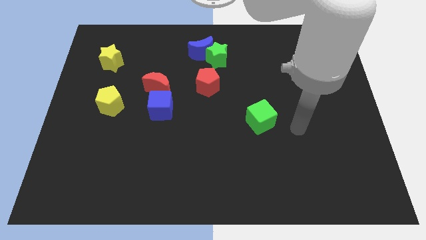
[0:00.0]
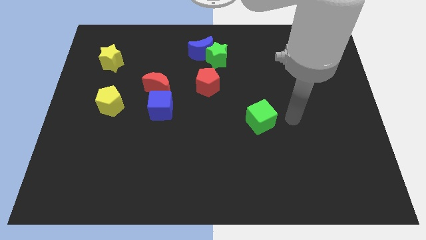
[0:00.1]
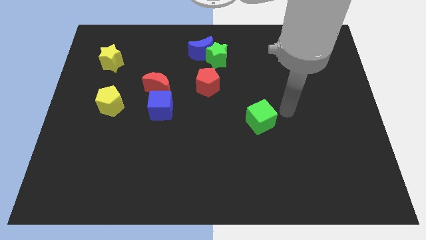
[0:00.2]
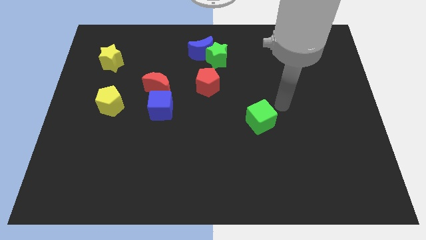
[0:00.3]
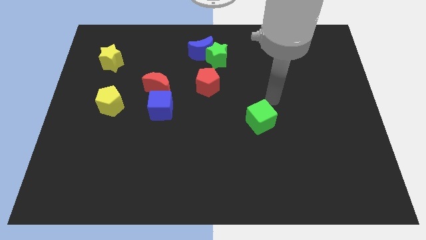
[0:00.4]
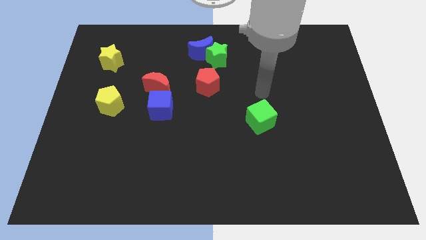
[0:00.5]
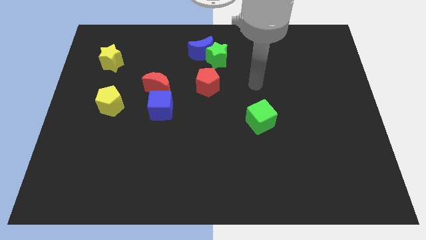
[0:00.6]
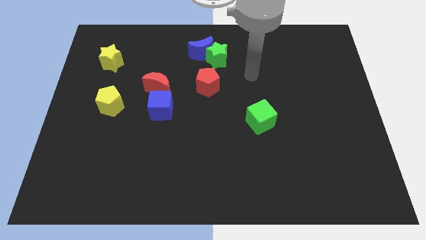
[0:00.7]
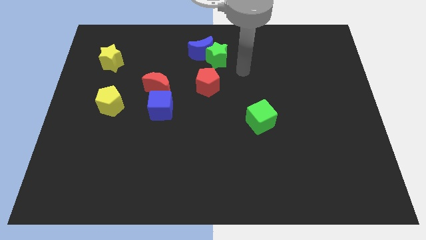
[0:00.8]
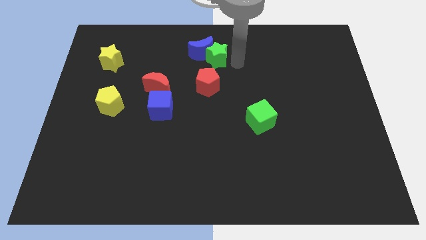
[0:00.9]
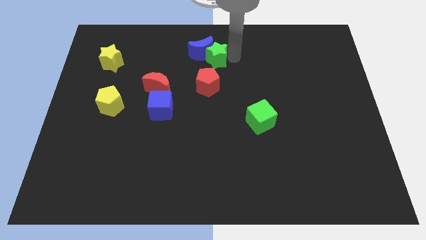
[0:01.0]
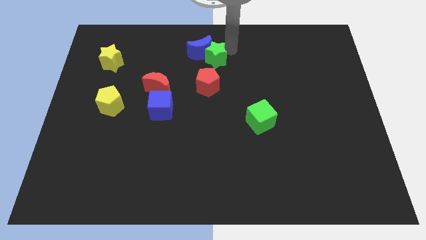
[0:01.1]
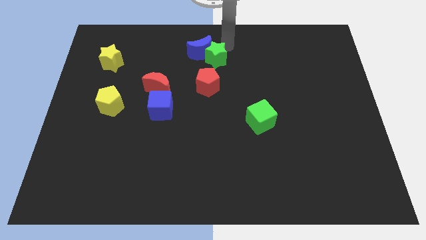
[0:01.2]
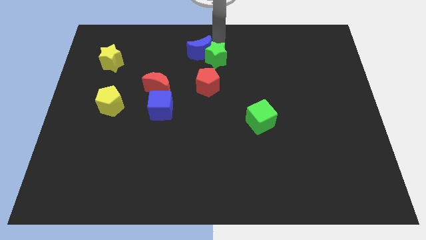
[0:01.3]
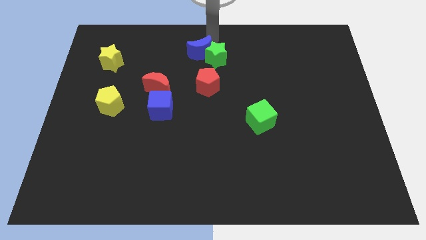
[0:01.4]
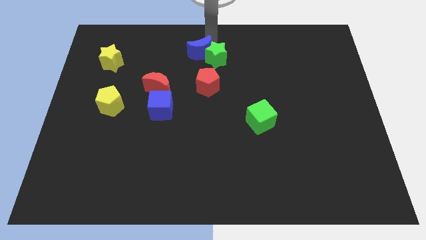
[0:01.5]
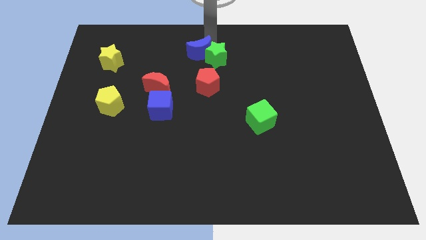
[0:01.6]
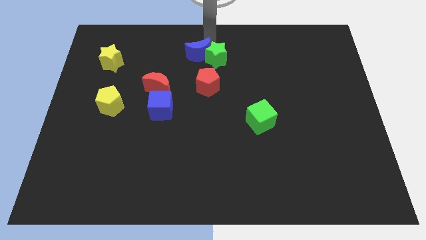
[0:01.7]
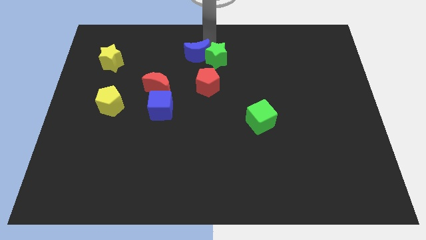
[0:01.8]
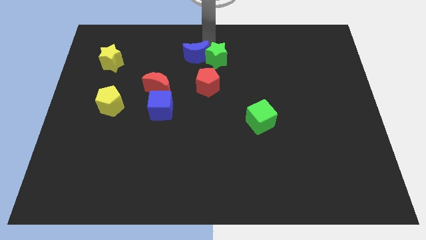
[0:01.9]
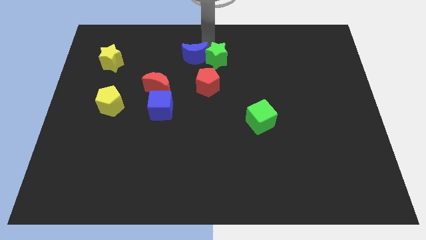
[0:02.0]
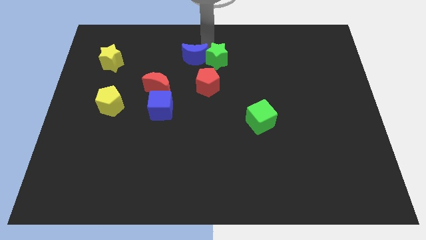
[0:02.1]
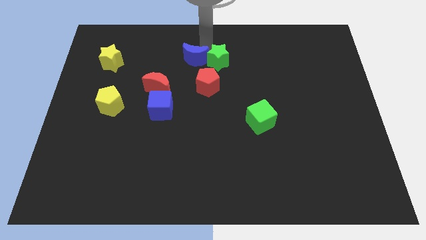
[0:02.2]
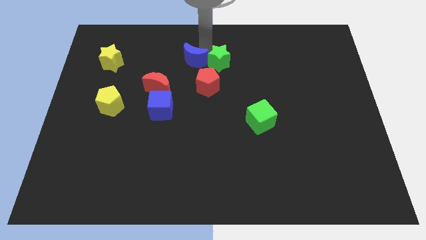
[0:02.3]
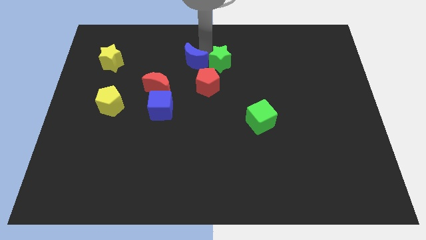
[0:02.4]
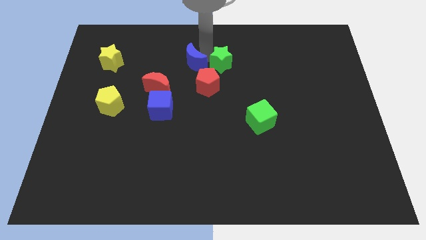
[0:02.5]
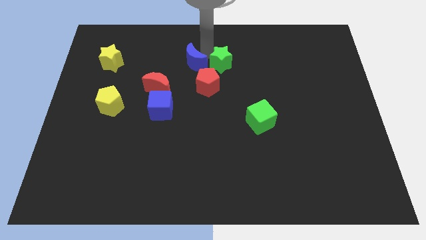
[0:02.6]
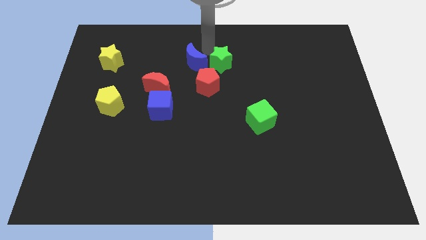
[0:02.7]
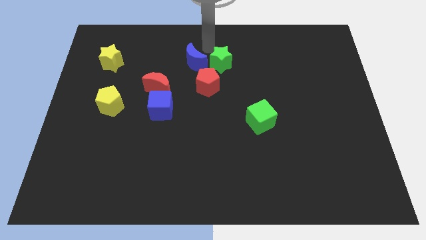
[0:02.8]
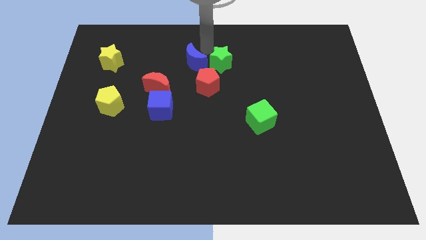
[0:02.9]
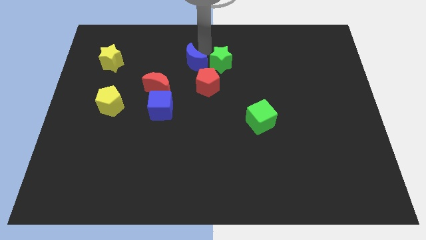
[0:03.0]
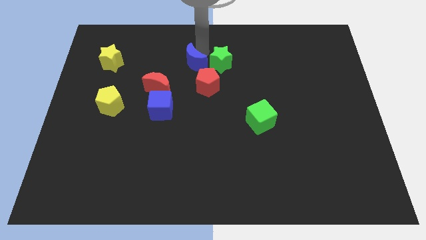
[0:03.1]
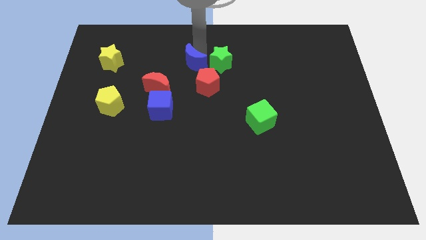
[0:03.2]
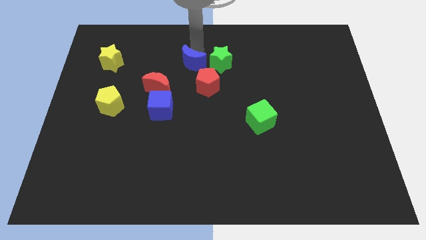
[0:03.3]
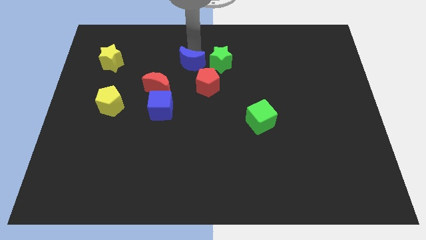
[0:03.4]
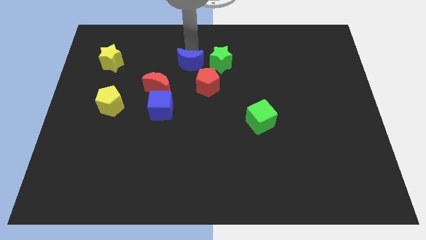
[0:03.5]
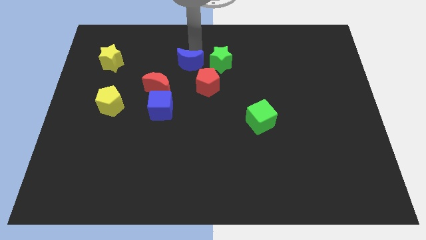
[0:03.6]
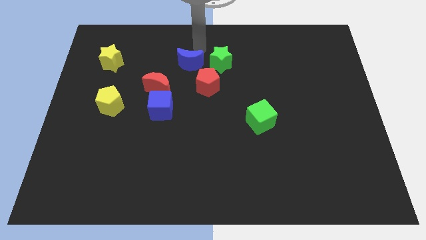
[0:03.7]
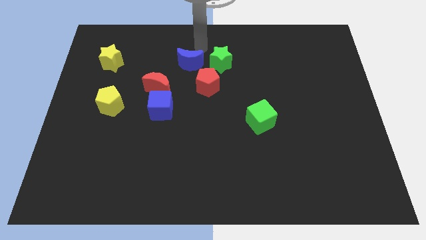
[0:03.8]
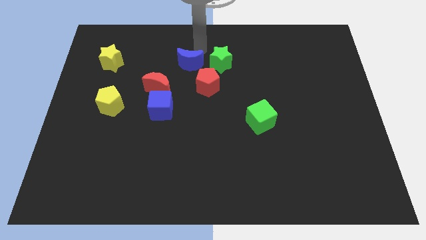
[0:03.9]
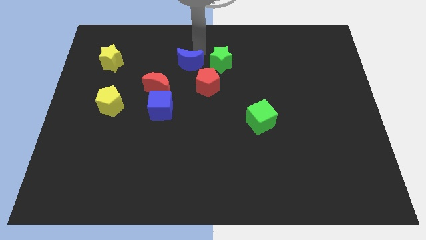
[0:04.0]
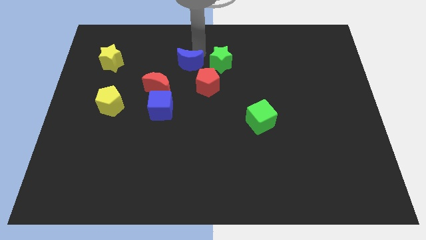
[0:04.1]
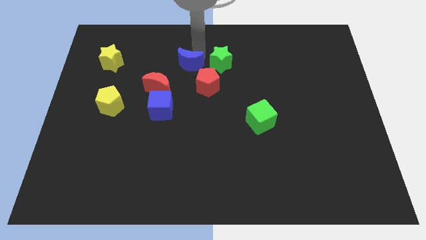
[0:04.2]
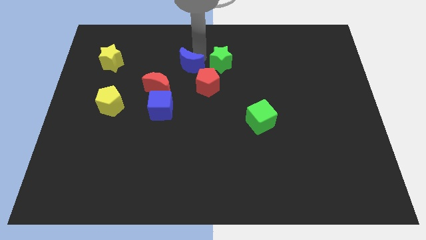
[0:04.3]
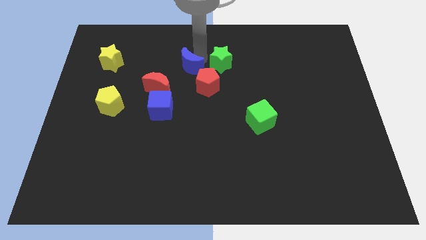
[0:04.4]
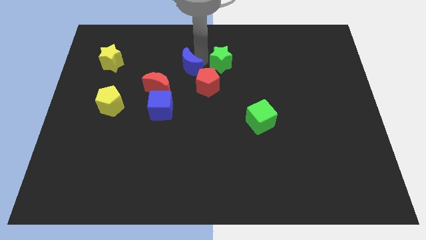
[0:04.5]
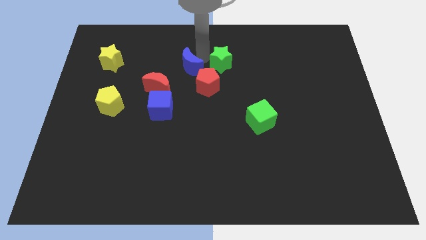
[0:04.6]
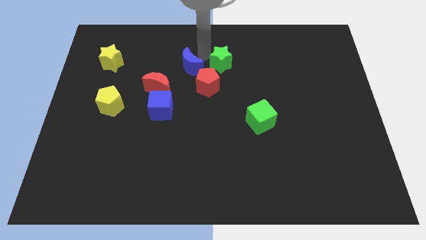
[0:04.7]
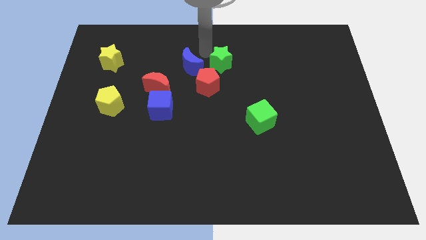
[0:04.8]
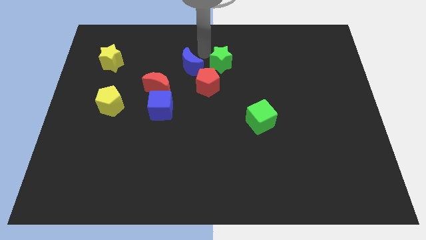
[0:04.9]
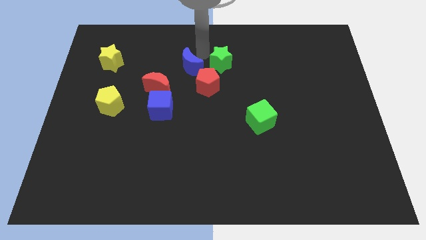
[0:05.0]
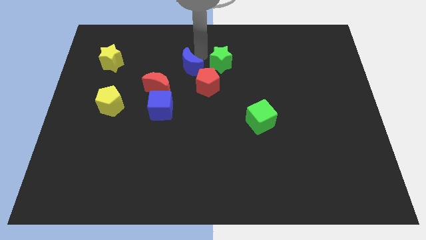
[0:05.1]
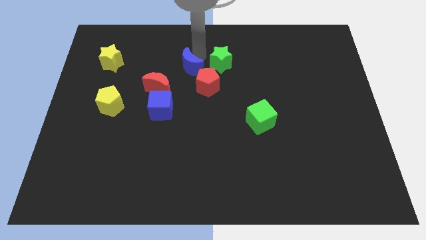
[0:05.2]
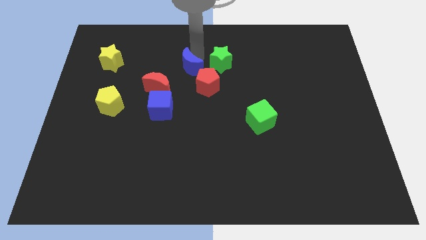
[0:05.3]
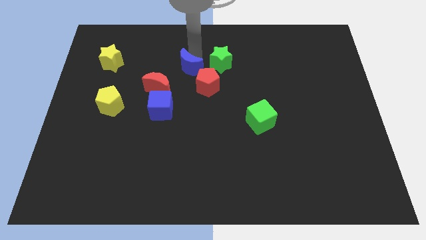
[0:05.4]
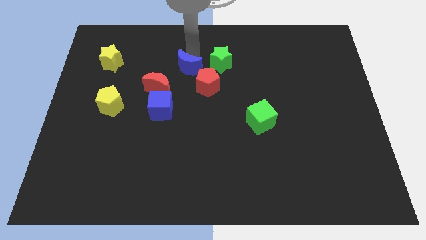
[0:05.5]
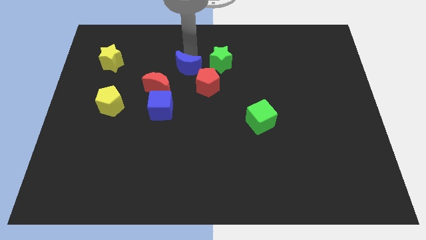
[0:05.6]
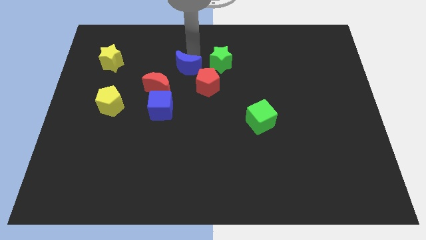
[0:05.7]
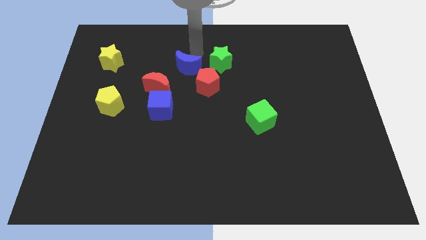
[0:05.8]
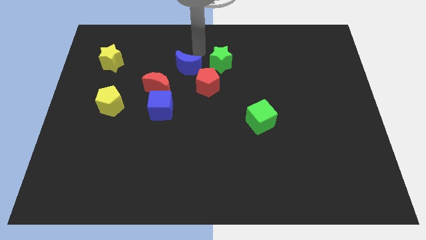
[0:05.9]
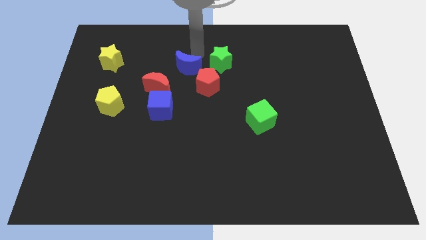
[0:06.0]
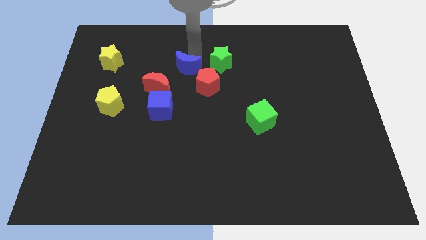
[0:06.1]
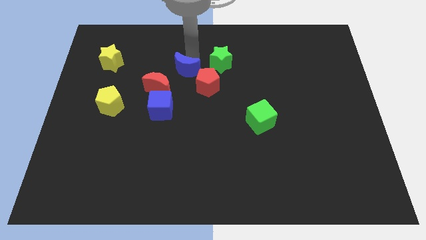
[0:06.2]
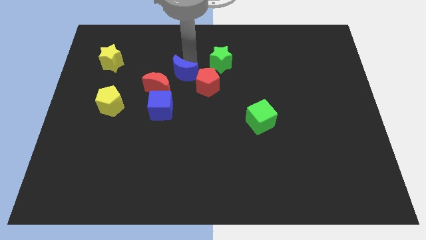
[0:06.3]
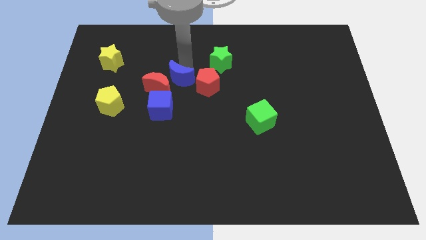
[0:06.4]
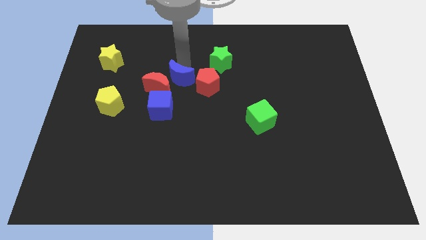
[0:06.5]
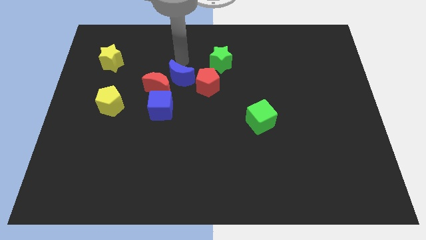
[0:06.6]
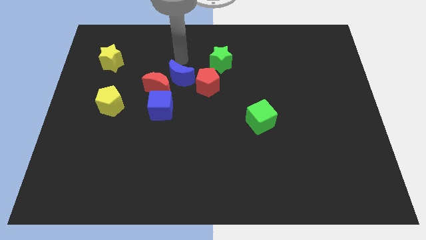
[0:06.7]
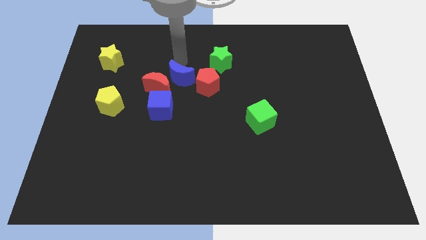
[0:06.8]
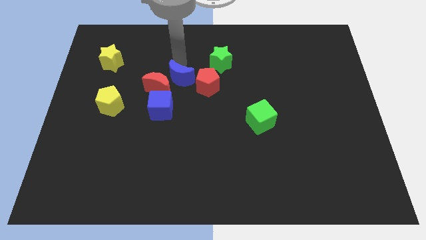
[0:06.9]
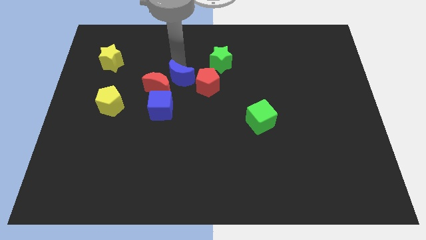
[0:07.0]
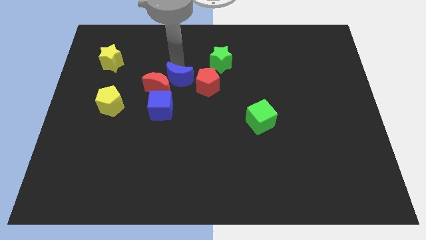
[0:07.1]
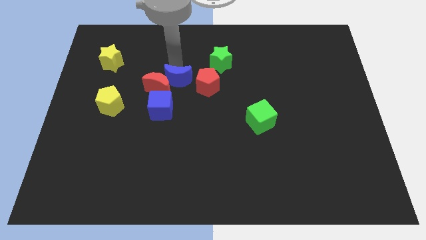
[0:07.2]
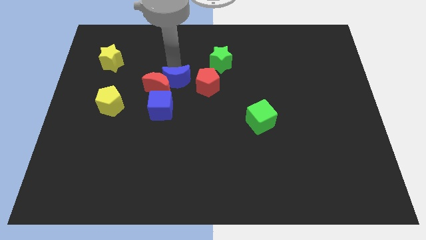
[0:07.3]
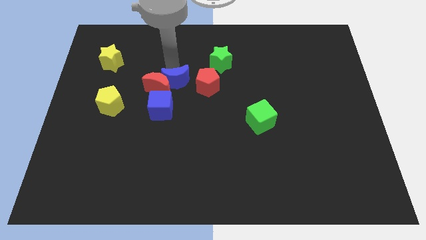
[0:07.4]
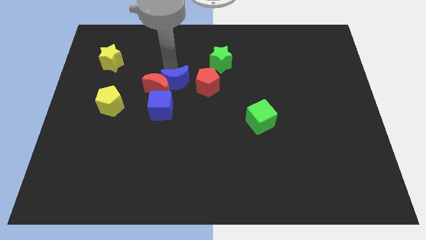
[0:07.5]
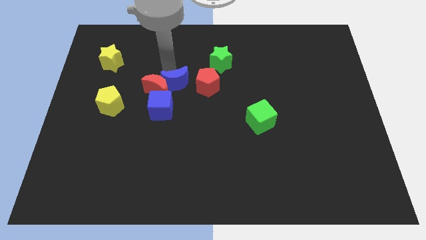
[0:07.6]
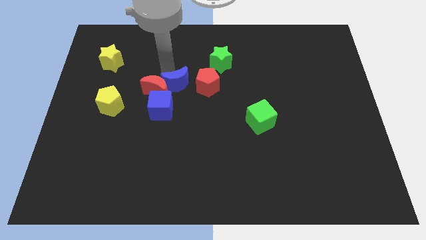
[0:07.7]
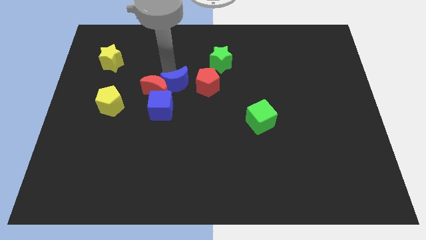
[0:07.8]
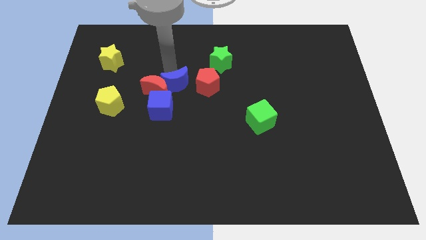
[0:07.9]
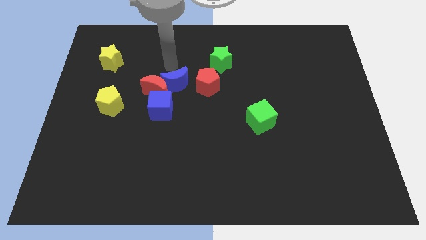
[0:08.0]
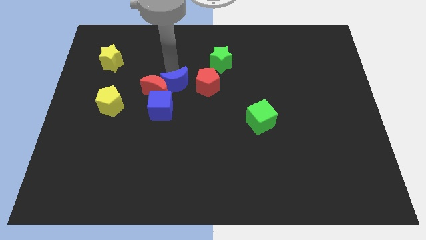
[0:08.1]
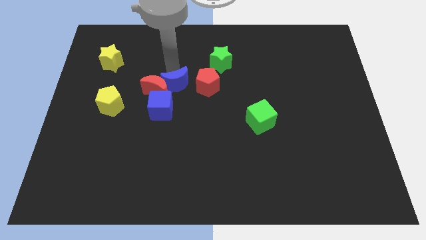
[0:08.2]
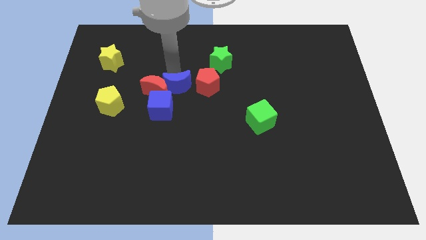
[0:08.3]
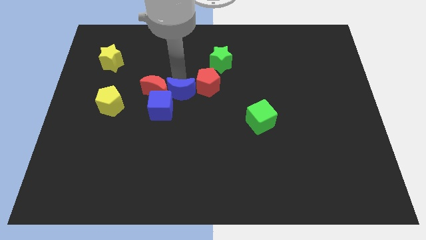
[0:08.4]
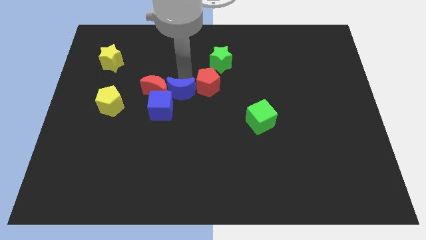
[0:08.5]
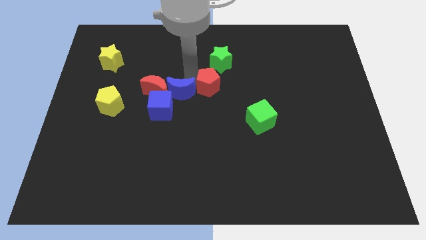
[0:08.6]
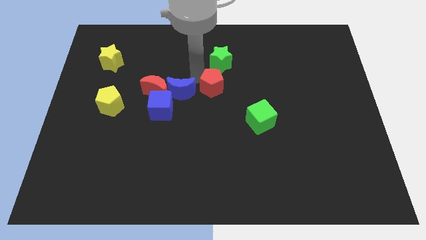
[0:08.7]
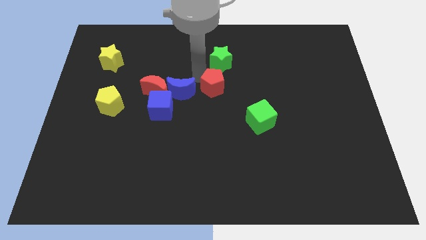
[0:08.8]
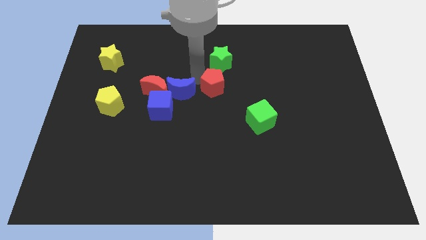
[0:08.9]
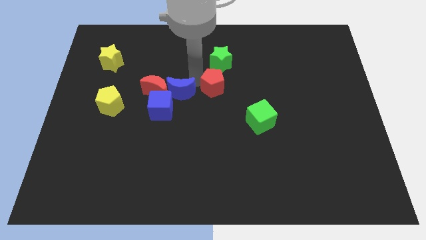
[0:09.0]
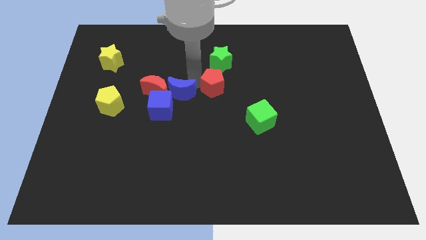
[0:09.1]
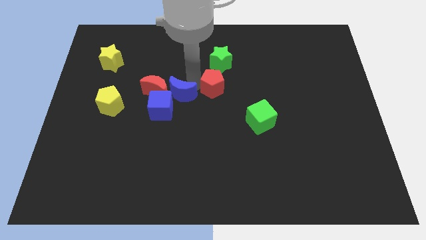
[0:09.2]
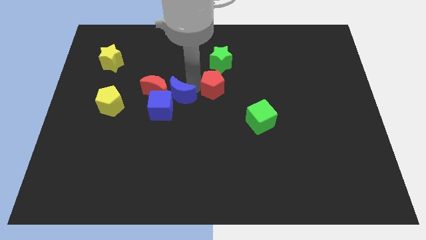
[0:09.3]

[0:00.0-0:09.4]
push the blue moon towards the blue cube
